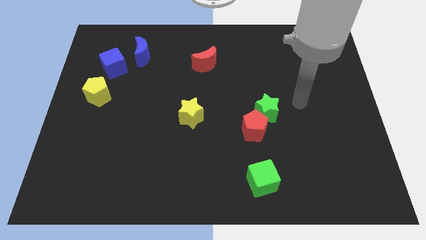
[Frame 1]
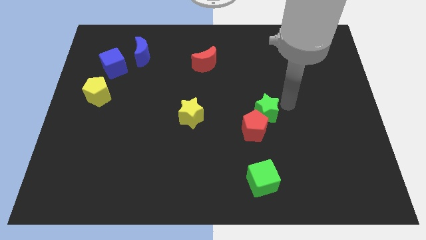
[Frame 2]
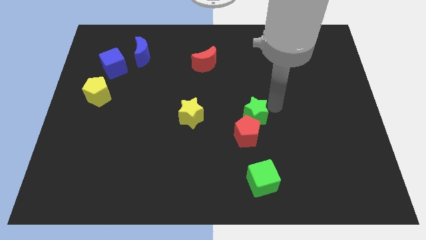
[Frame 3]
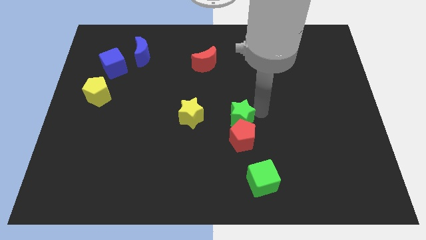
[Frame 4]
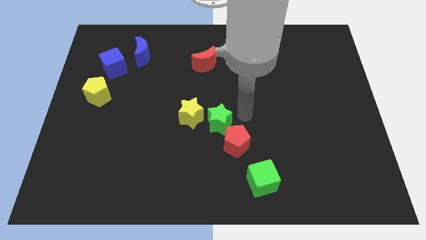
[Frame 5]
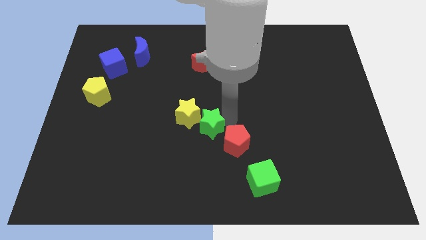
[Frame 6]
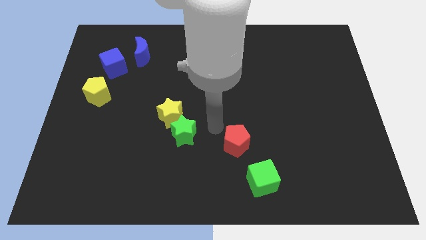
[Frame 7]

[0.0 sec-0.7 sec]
separate the red pentagon from the green star

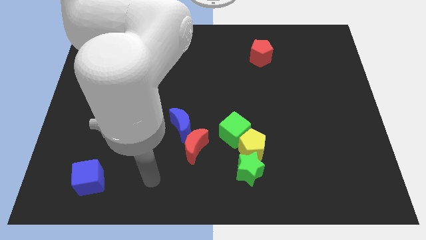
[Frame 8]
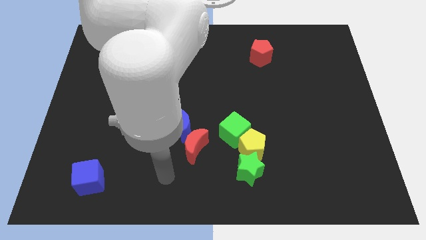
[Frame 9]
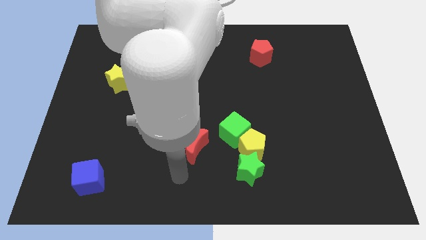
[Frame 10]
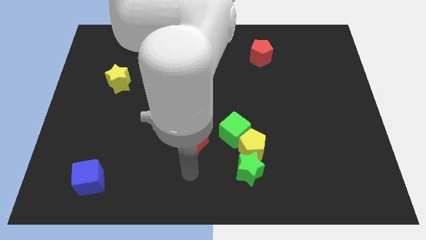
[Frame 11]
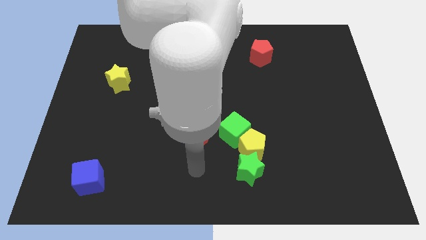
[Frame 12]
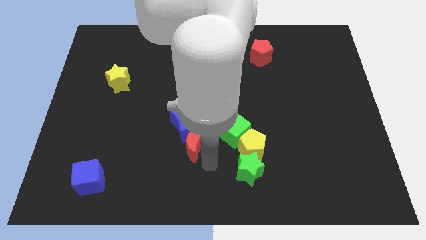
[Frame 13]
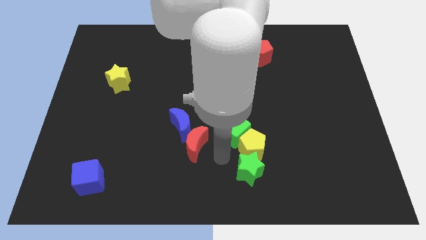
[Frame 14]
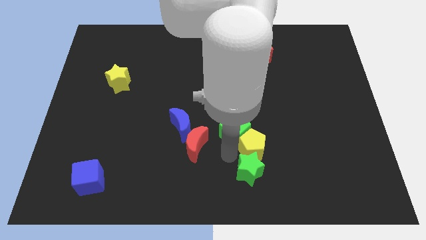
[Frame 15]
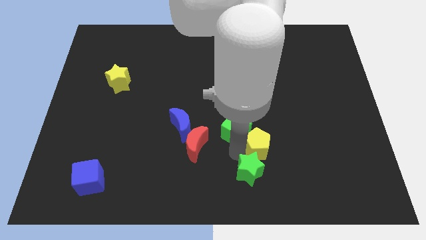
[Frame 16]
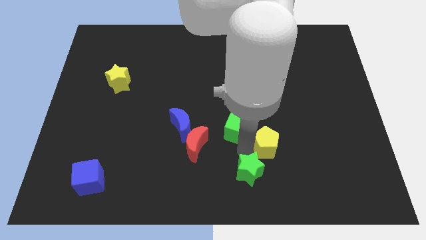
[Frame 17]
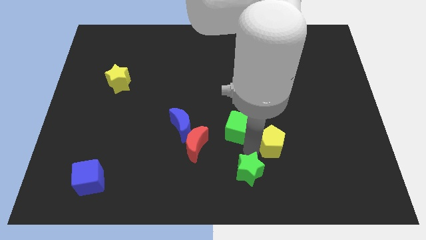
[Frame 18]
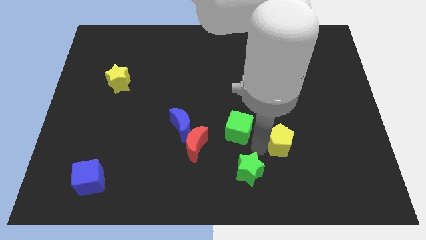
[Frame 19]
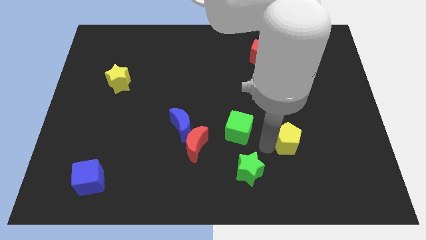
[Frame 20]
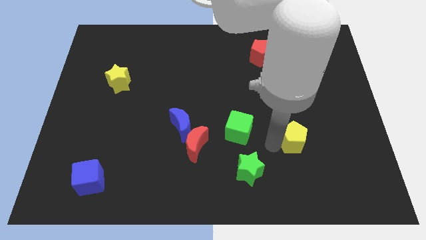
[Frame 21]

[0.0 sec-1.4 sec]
move the yellow pentagon away from the green cube and green star

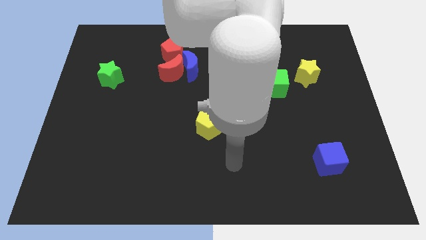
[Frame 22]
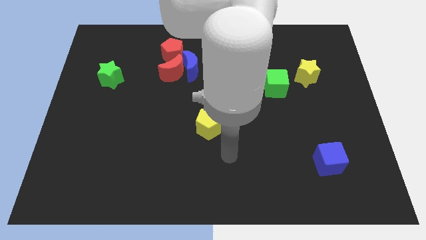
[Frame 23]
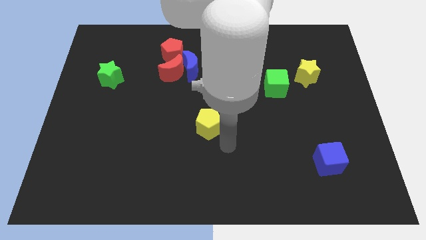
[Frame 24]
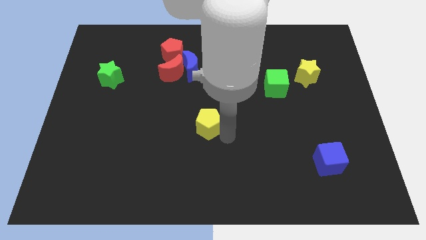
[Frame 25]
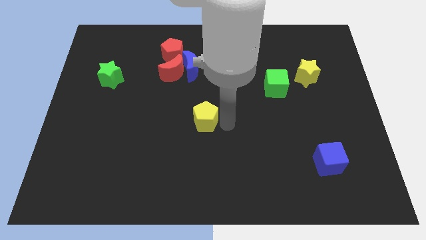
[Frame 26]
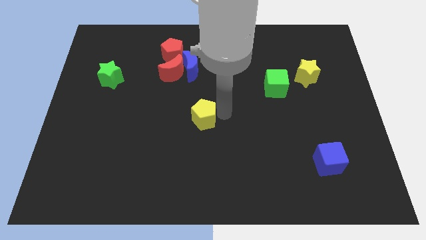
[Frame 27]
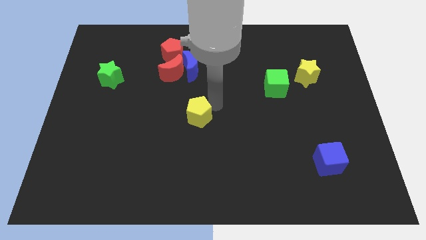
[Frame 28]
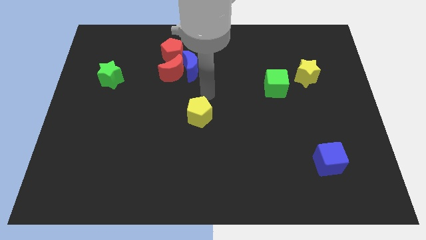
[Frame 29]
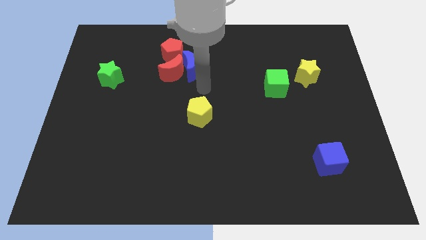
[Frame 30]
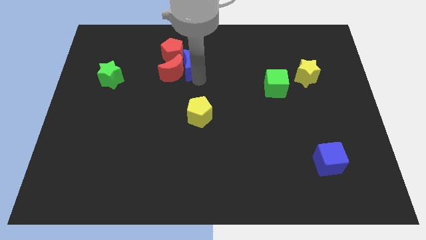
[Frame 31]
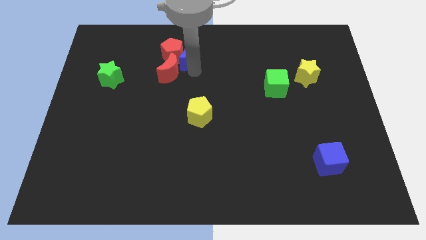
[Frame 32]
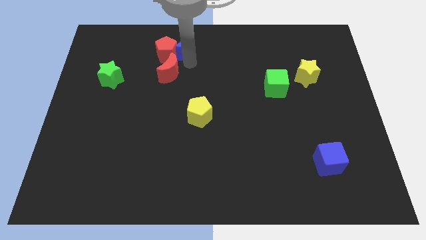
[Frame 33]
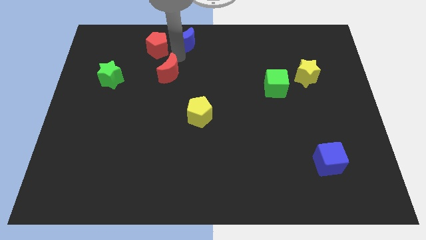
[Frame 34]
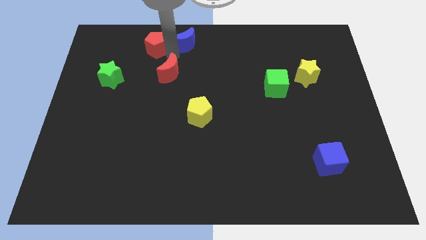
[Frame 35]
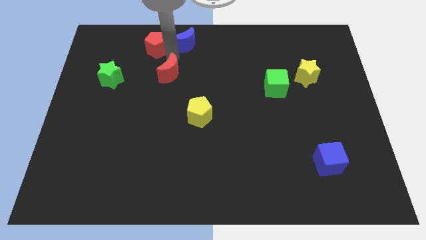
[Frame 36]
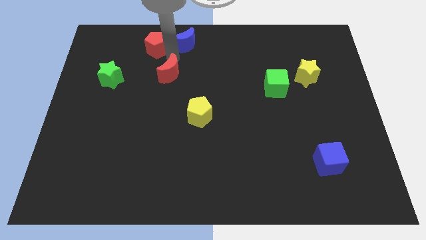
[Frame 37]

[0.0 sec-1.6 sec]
move the red moon away from the blue moon and red pentagon

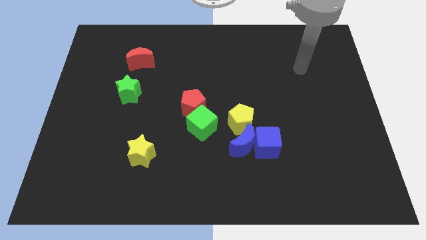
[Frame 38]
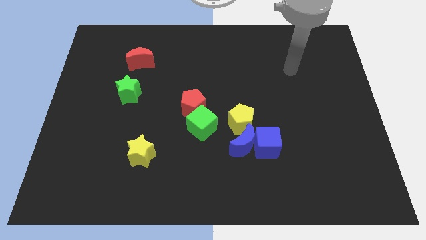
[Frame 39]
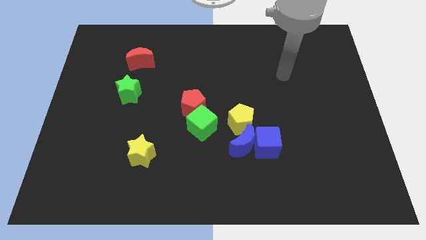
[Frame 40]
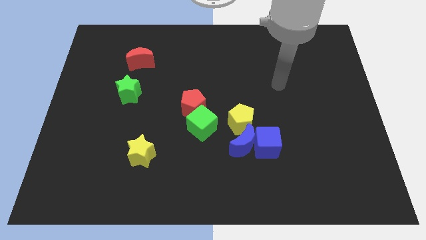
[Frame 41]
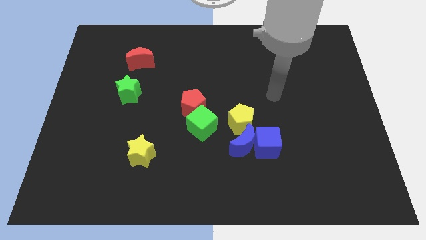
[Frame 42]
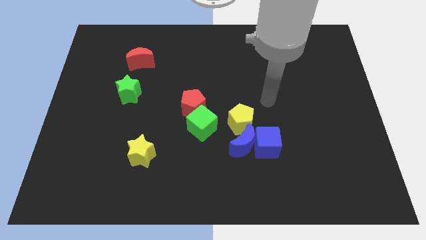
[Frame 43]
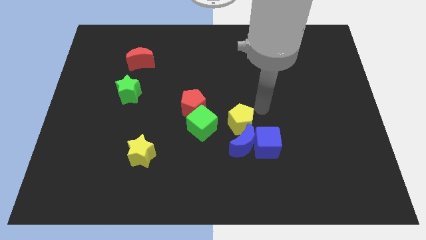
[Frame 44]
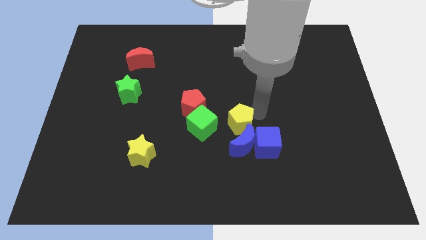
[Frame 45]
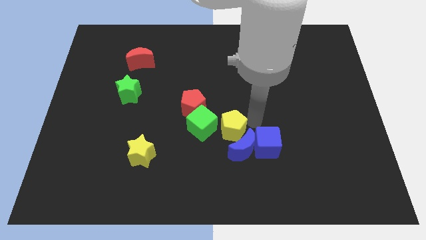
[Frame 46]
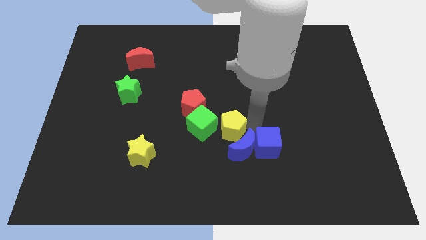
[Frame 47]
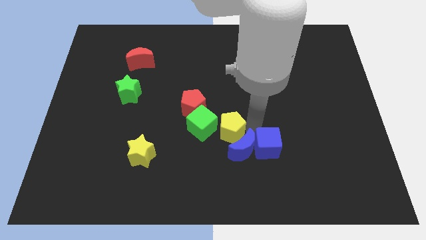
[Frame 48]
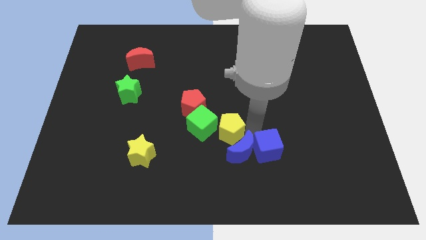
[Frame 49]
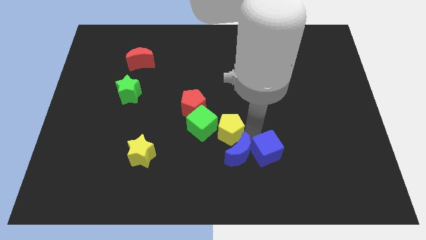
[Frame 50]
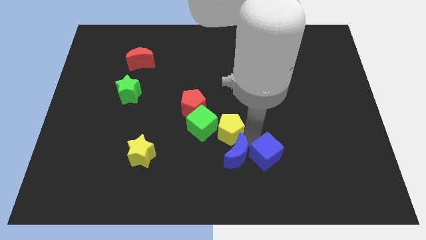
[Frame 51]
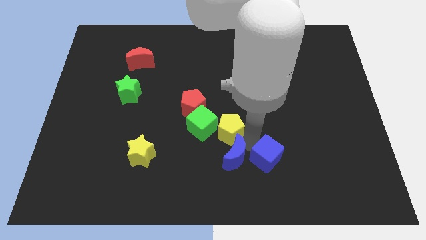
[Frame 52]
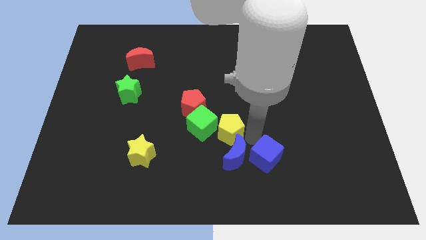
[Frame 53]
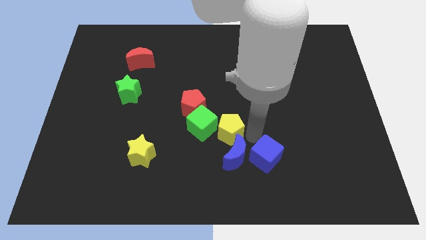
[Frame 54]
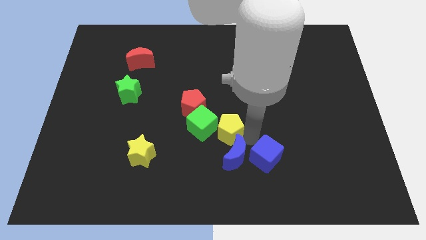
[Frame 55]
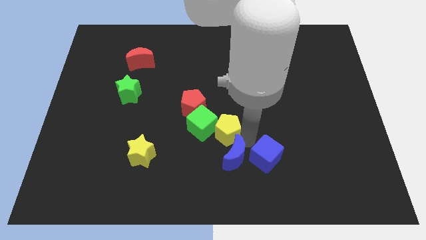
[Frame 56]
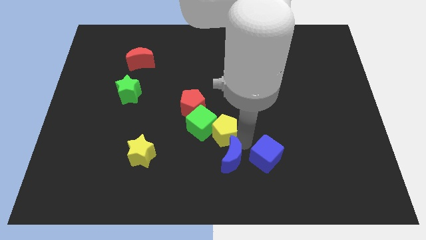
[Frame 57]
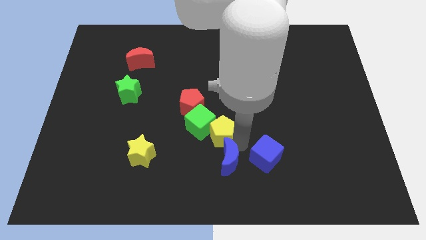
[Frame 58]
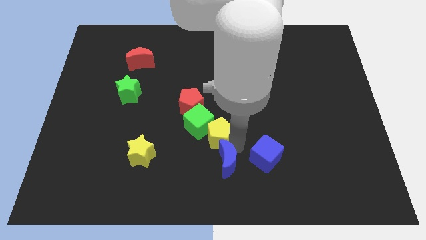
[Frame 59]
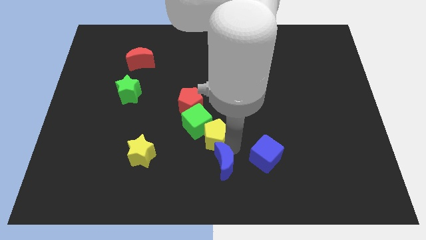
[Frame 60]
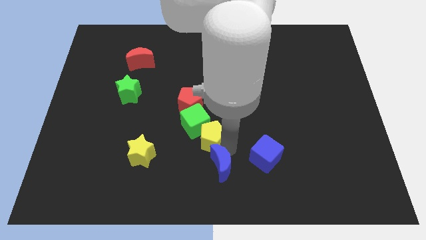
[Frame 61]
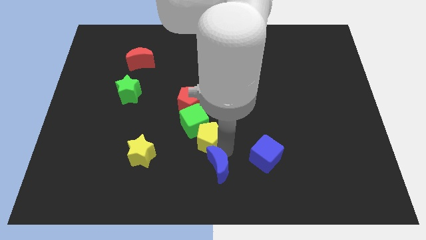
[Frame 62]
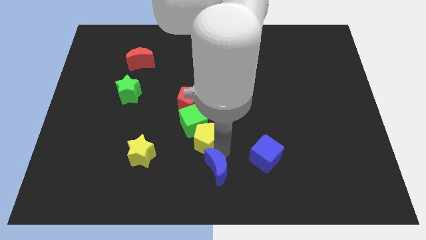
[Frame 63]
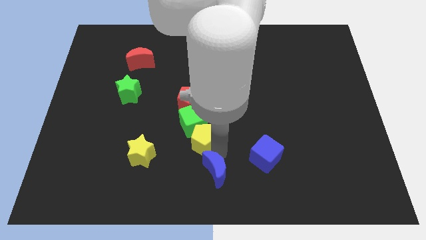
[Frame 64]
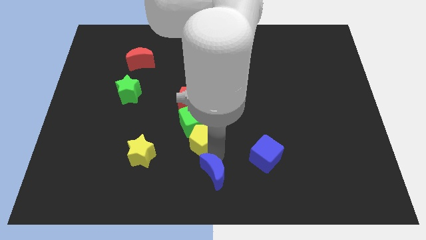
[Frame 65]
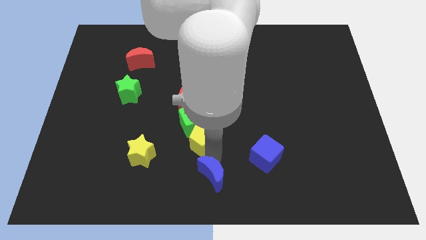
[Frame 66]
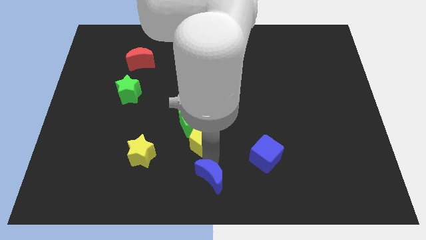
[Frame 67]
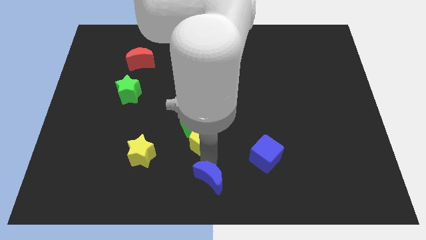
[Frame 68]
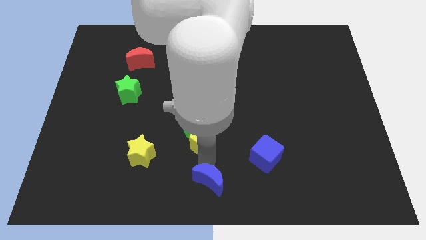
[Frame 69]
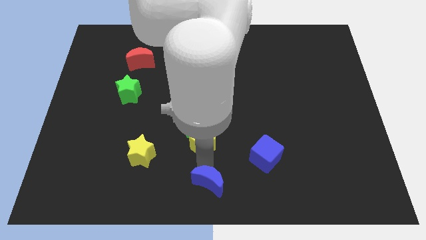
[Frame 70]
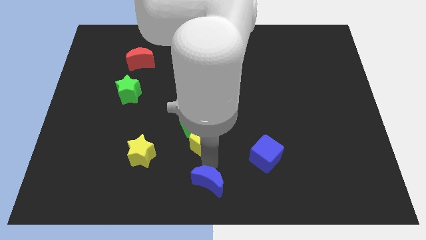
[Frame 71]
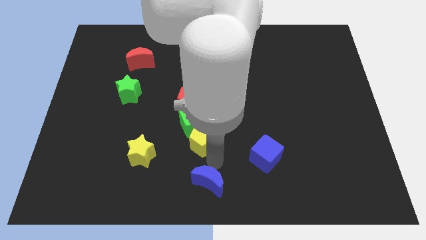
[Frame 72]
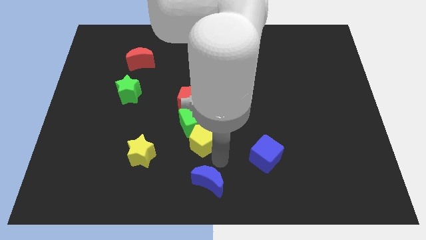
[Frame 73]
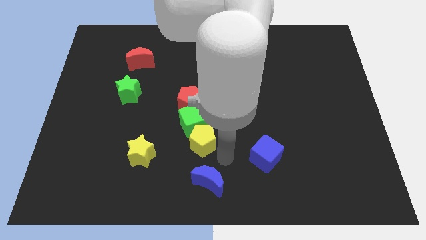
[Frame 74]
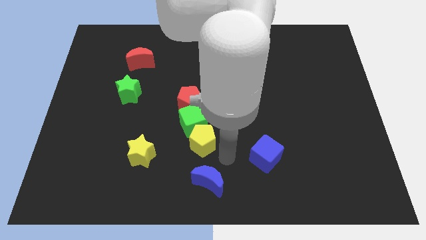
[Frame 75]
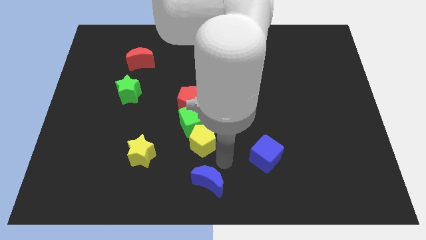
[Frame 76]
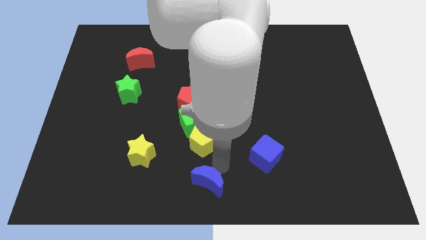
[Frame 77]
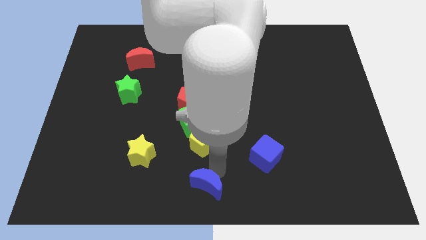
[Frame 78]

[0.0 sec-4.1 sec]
pull the blue moon apart from the blue cube and yellow pentagon

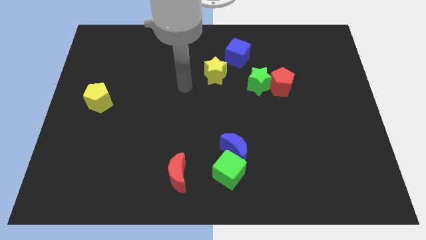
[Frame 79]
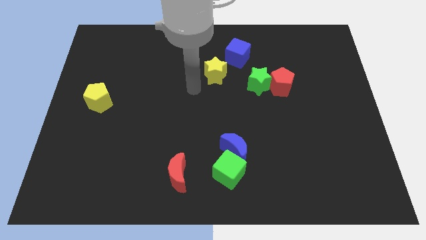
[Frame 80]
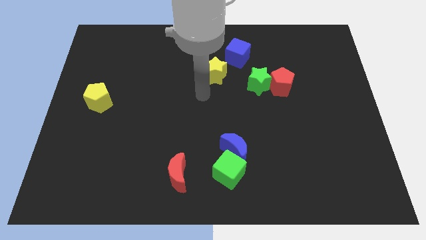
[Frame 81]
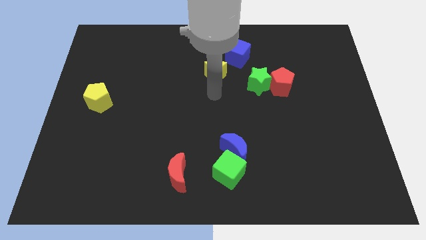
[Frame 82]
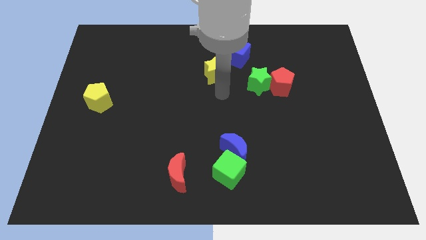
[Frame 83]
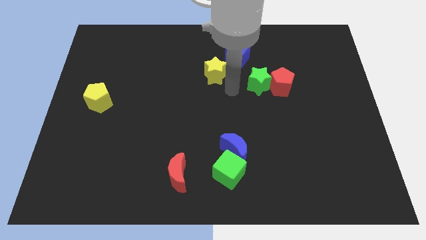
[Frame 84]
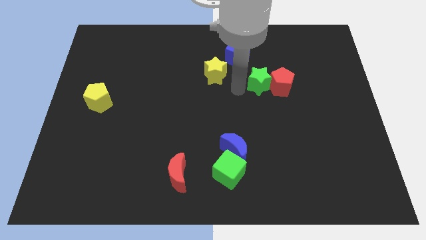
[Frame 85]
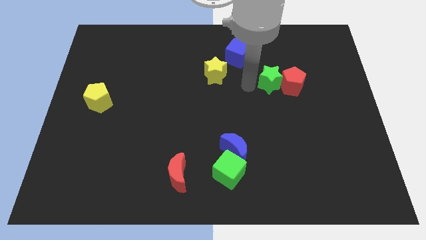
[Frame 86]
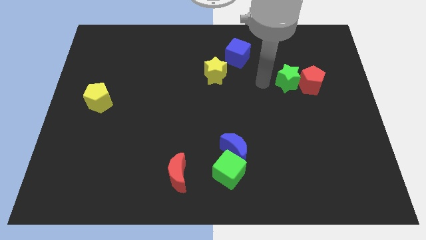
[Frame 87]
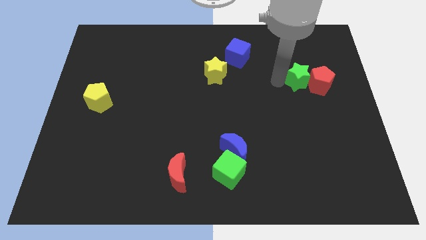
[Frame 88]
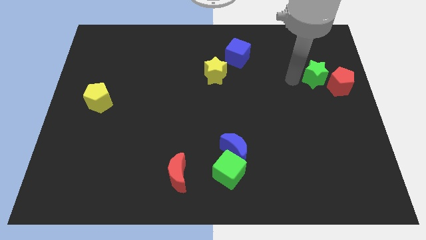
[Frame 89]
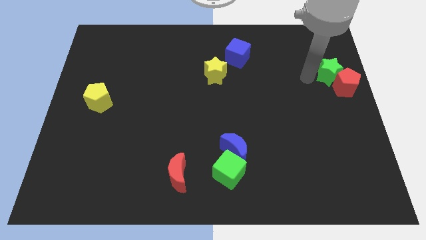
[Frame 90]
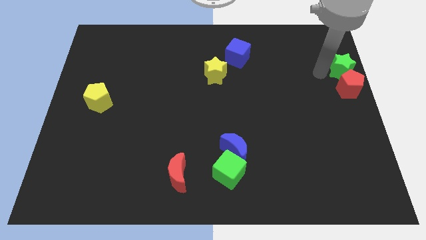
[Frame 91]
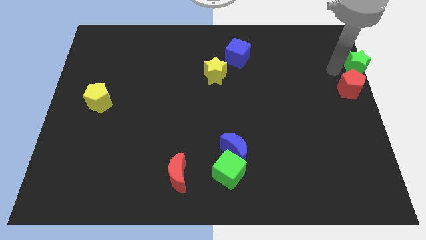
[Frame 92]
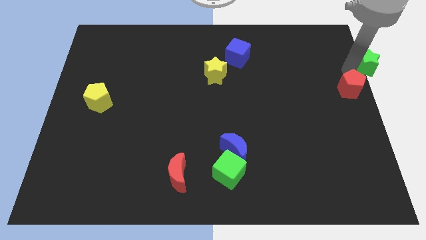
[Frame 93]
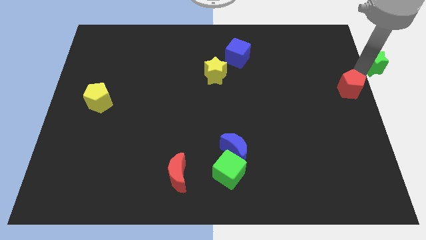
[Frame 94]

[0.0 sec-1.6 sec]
pull the red pentagon apart from the green star
